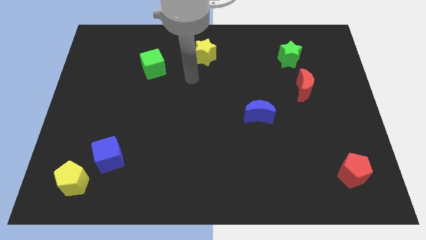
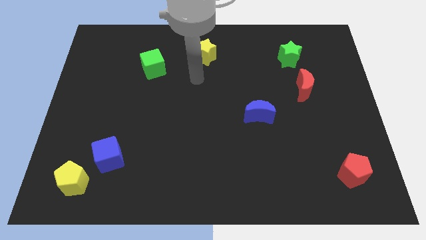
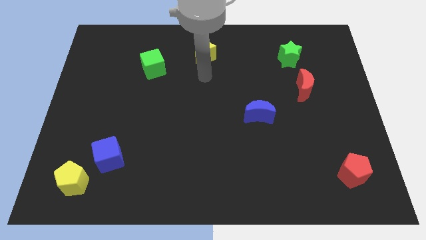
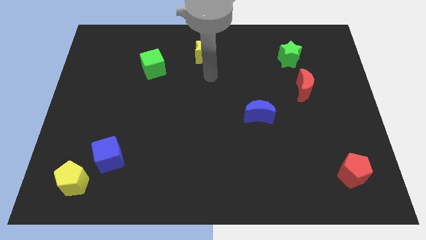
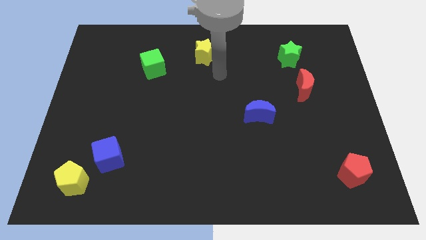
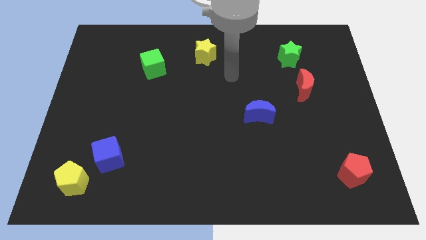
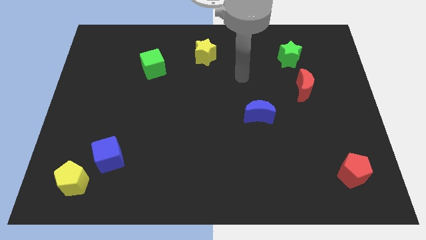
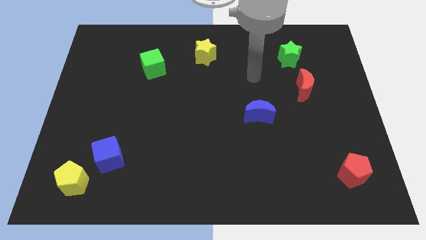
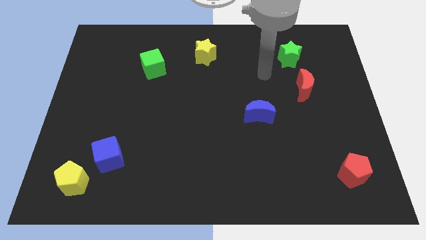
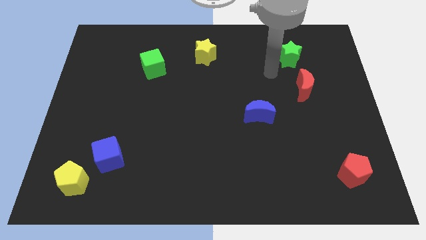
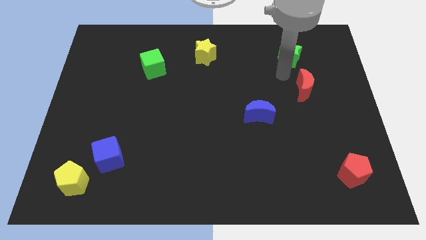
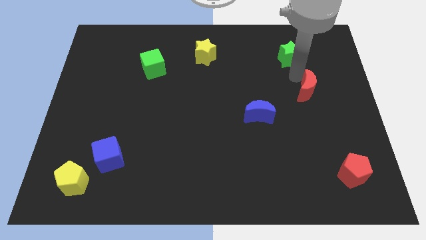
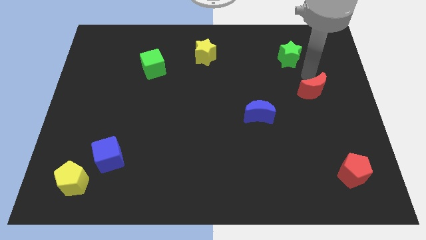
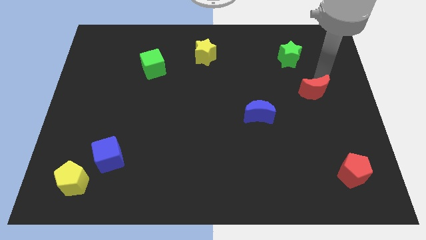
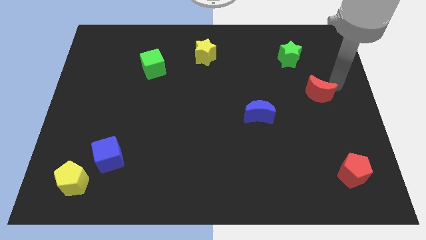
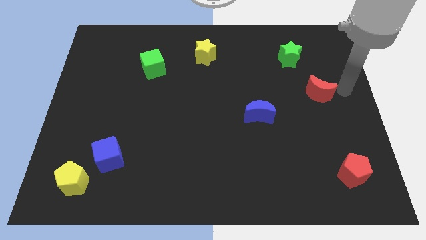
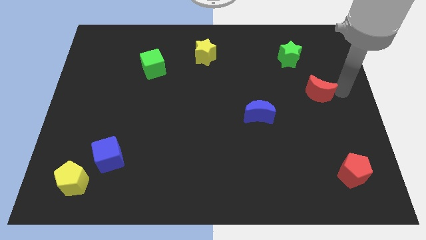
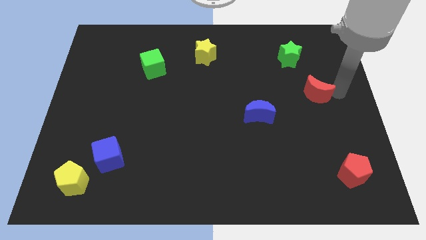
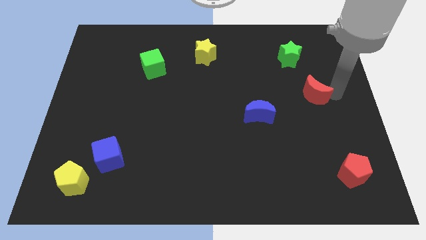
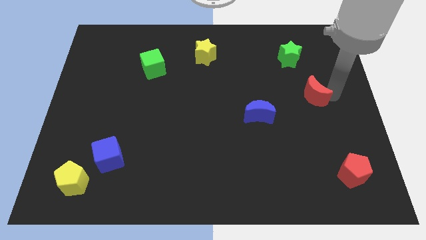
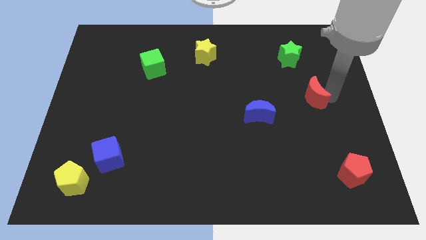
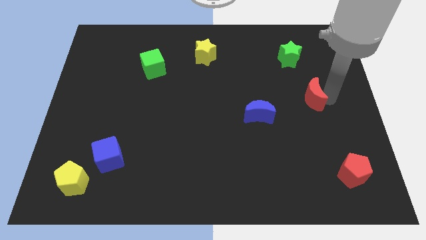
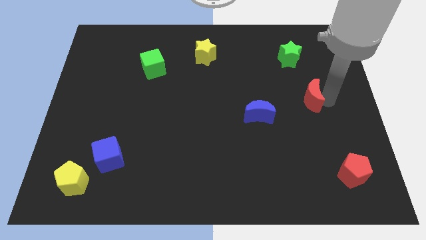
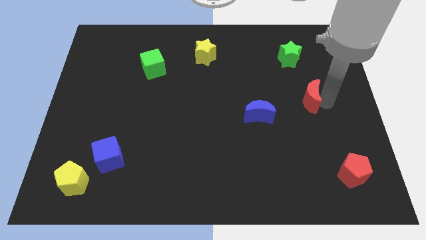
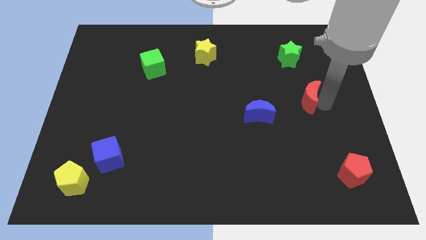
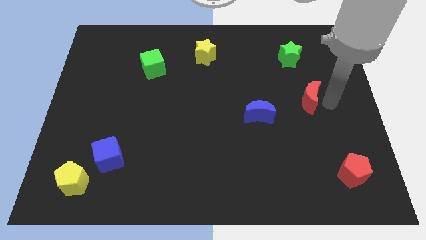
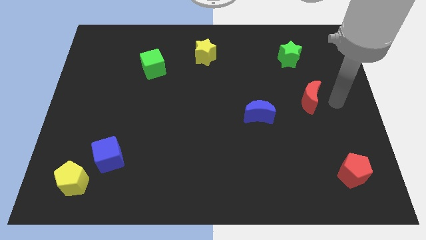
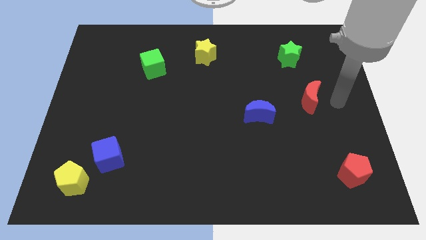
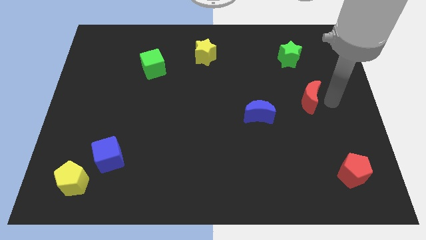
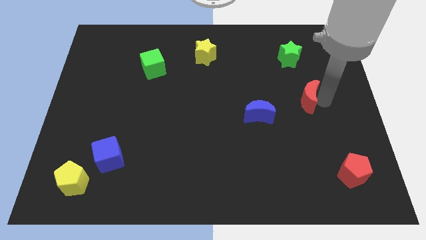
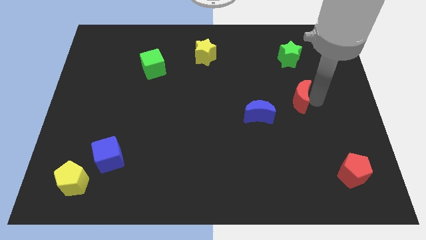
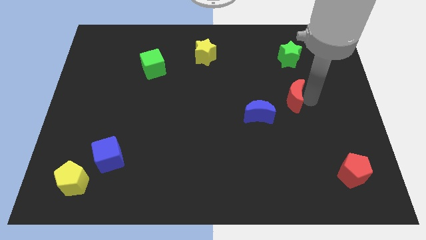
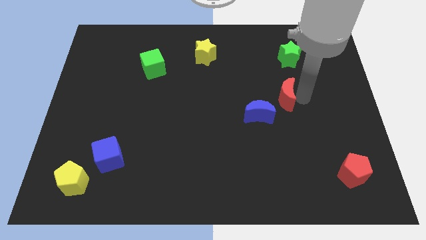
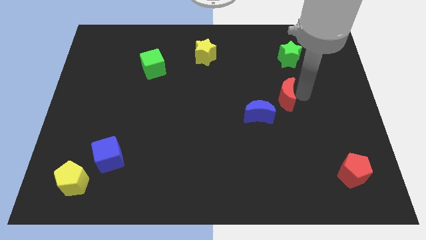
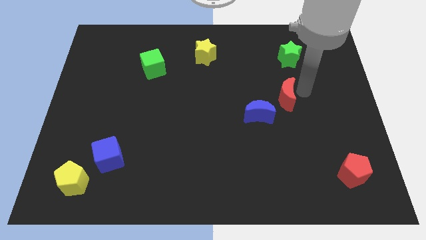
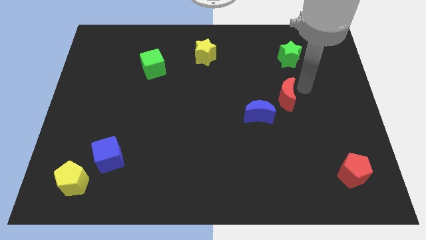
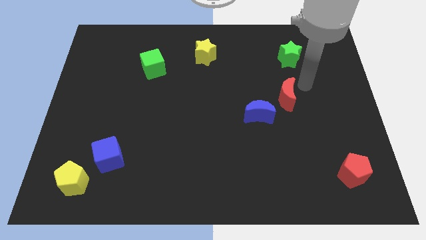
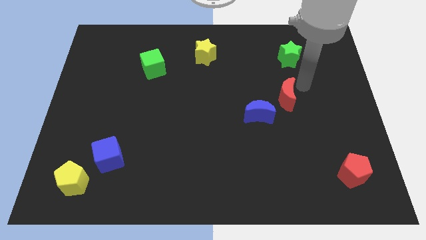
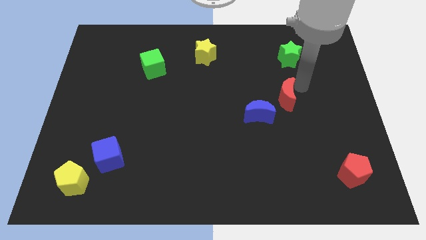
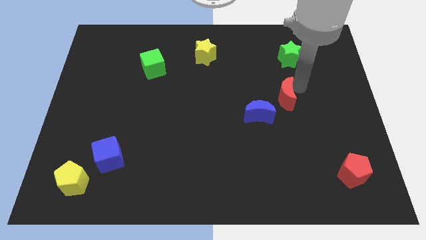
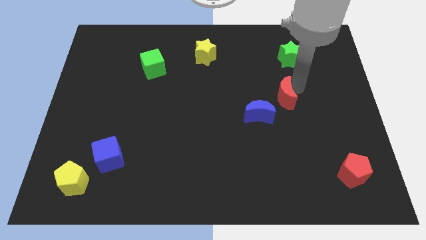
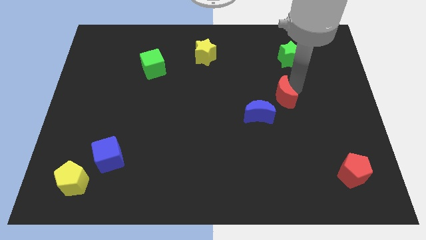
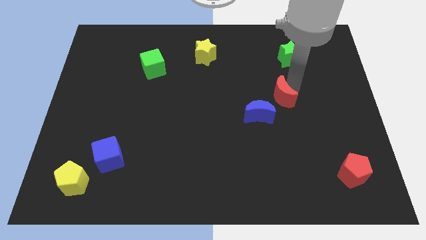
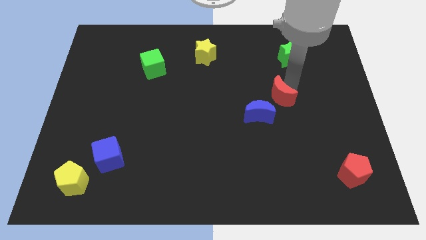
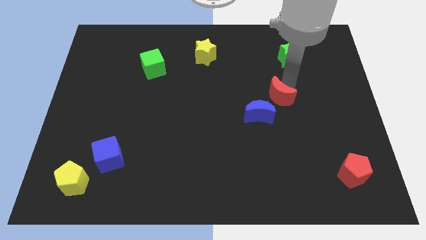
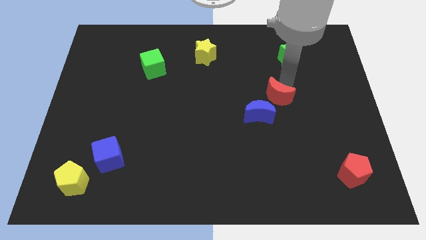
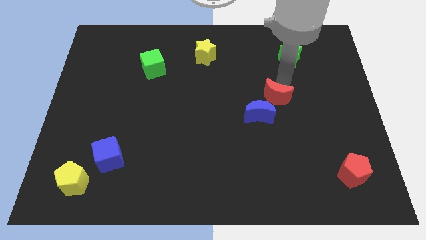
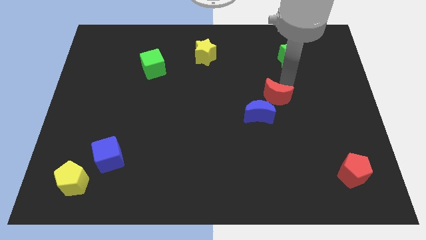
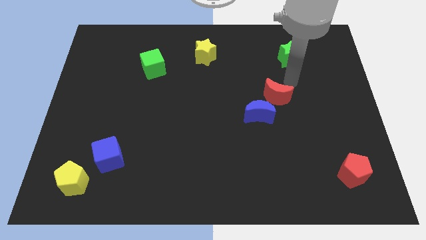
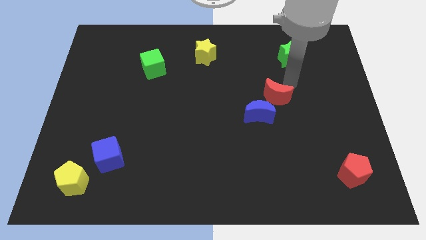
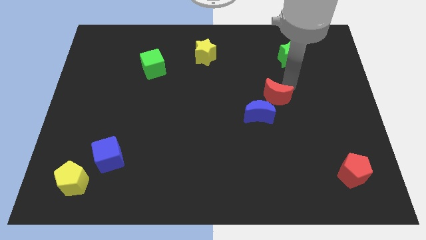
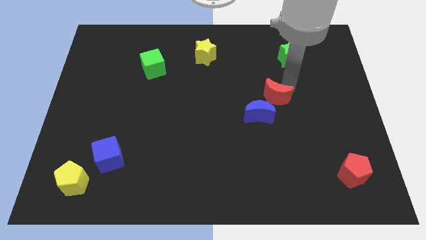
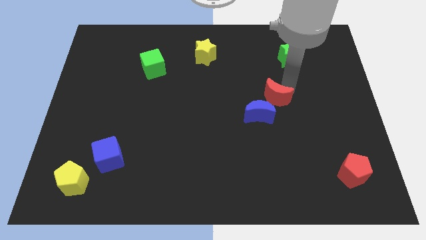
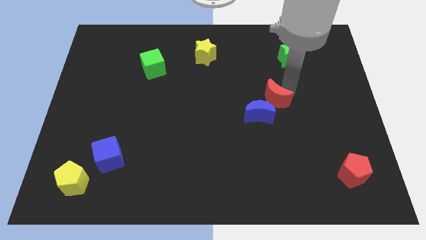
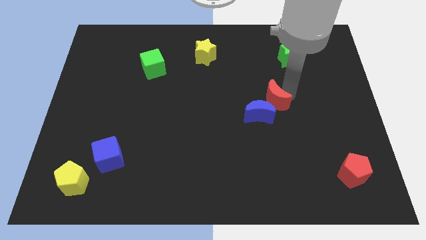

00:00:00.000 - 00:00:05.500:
slide the red moon towards the blue moon

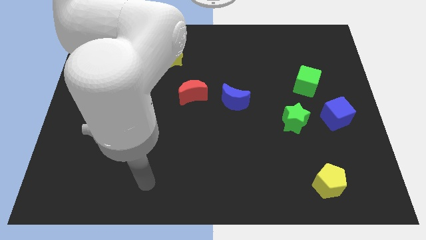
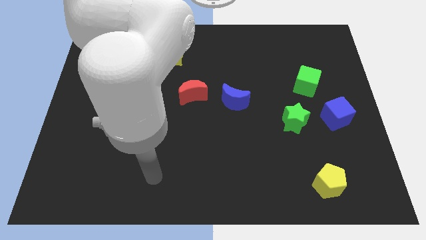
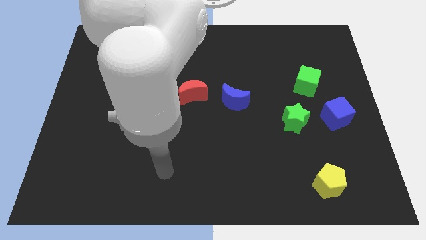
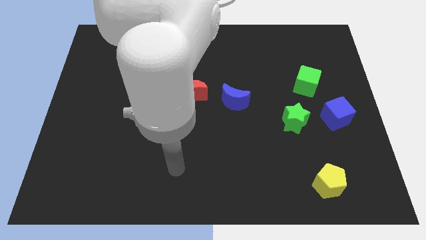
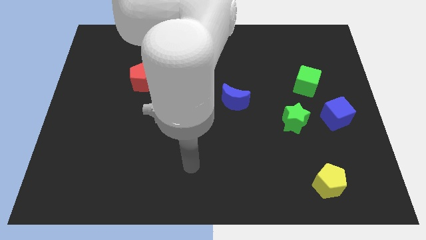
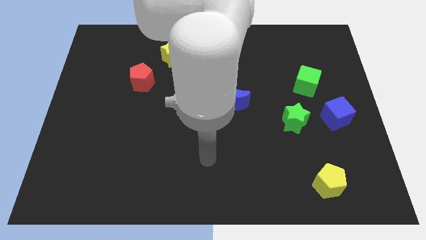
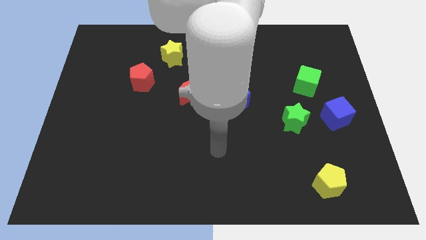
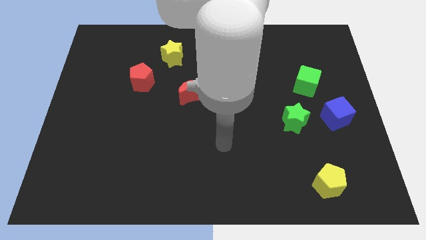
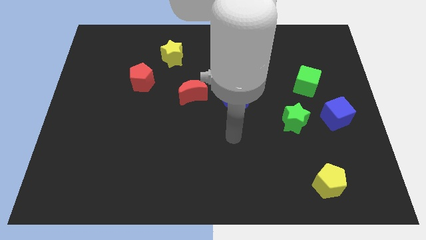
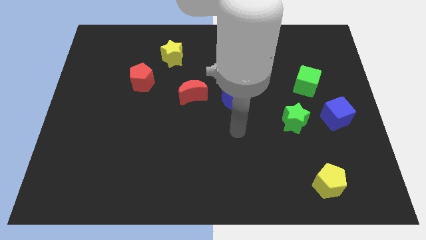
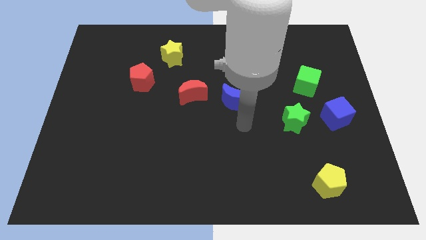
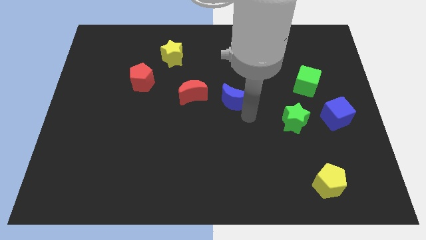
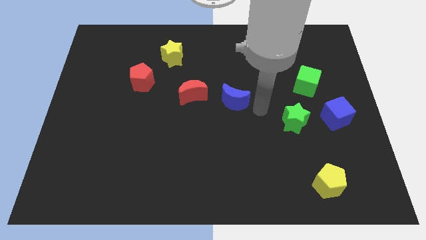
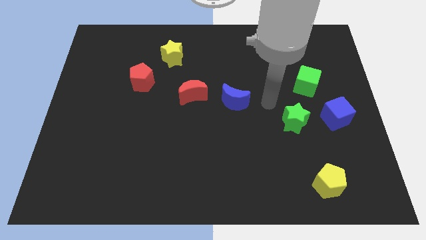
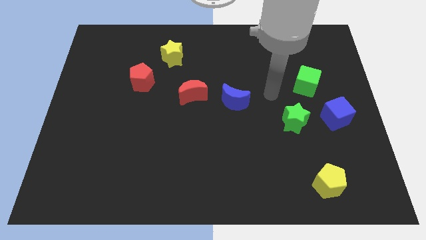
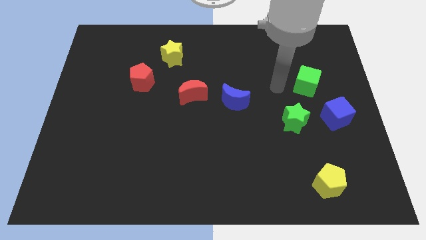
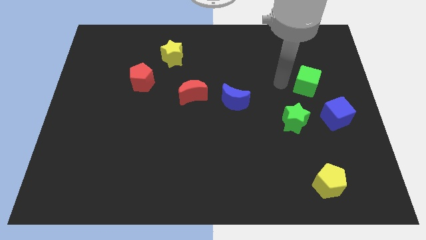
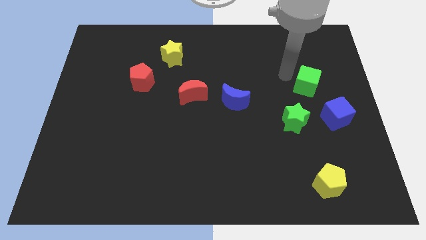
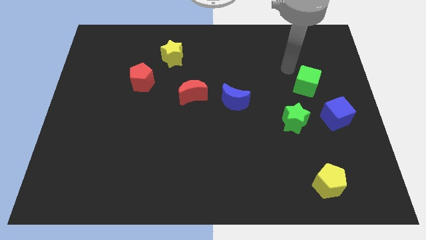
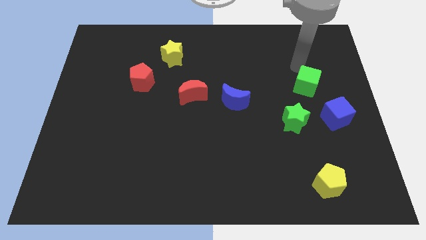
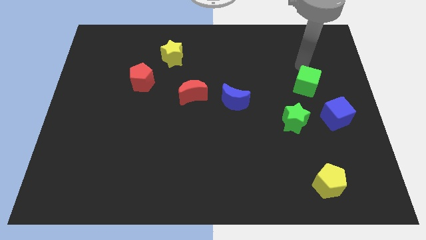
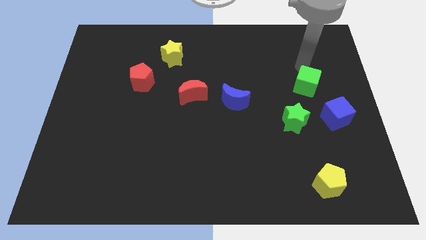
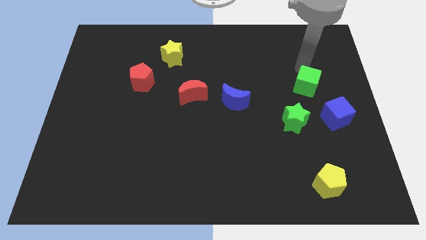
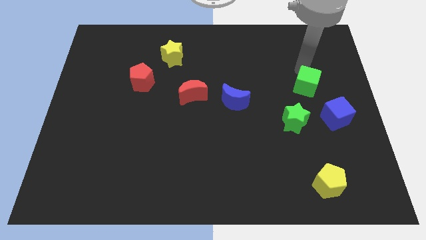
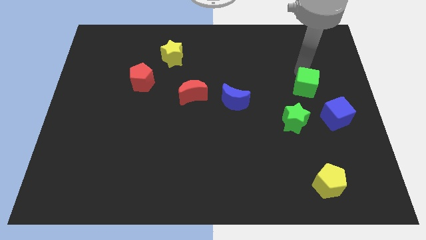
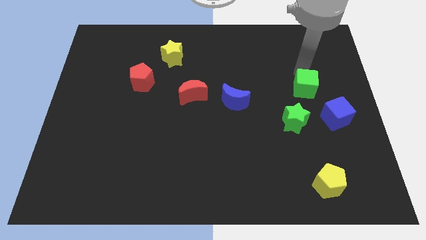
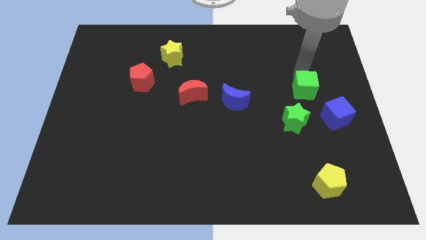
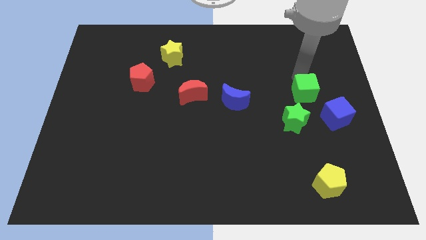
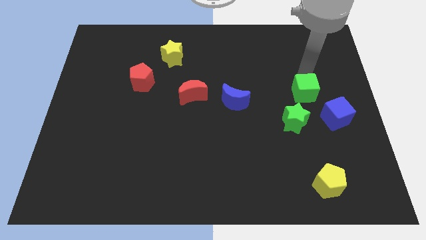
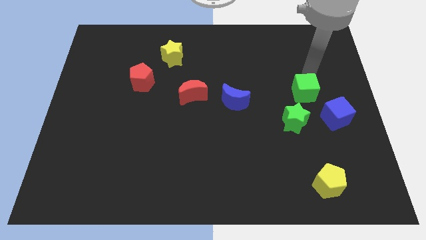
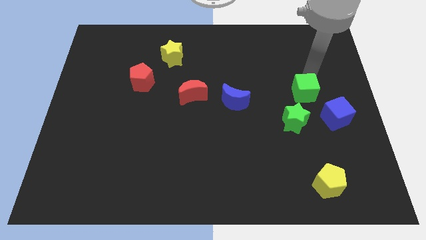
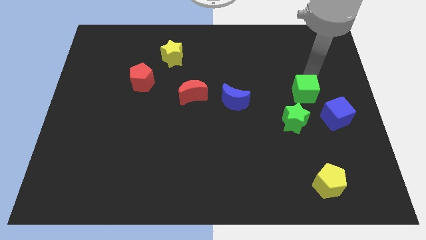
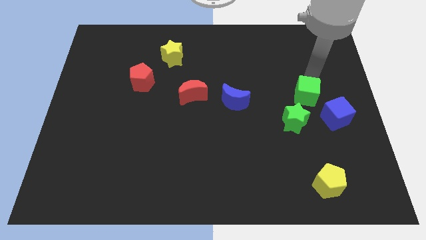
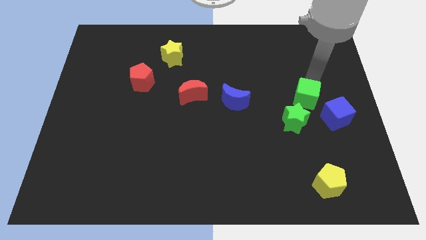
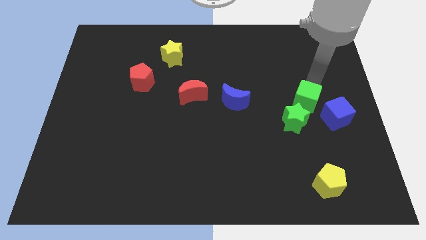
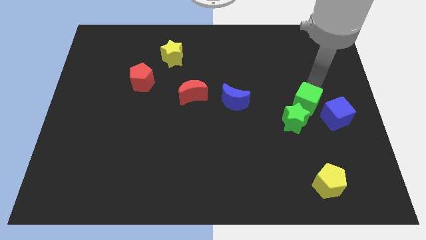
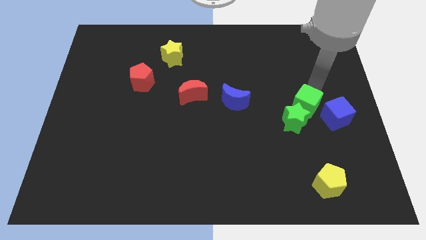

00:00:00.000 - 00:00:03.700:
slide the green cube close to the green star
